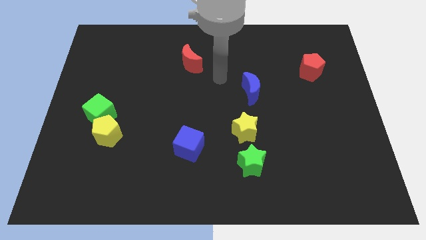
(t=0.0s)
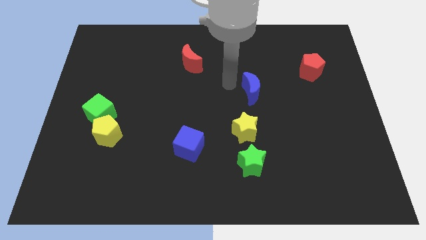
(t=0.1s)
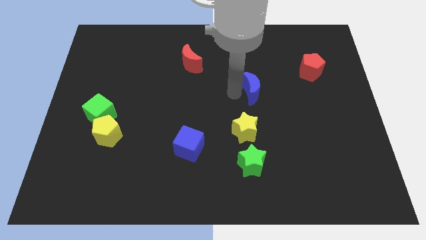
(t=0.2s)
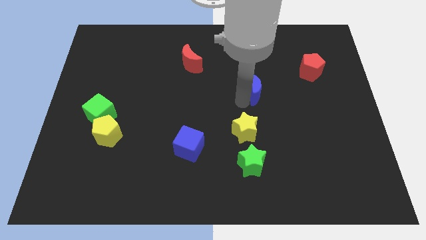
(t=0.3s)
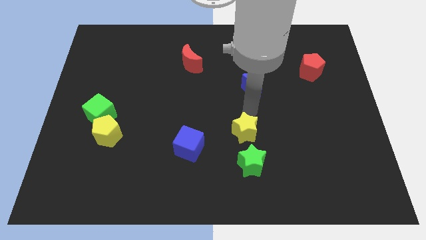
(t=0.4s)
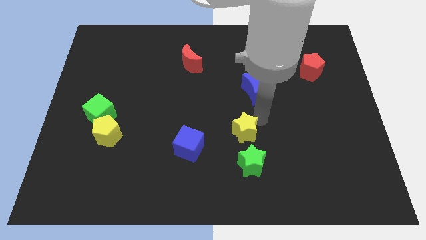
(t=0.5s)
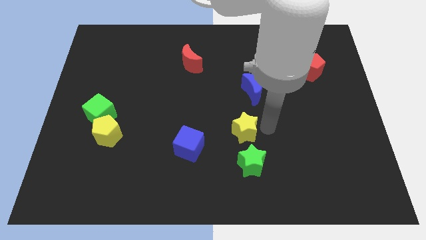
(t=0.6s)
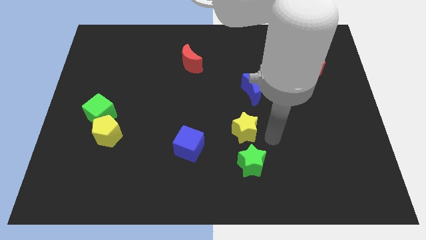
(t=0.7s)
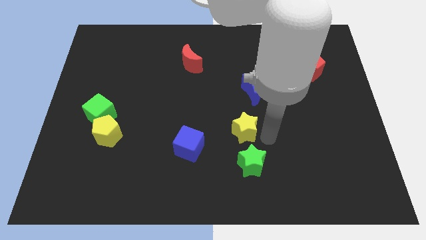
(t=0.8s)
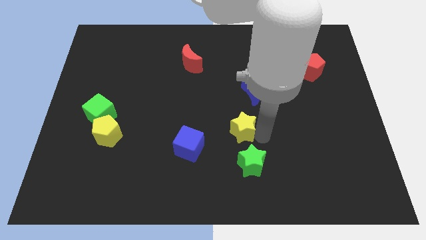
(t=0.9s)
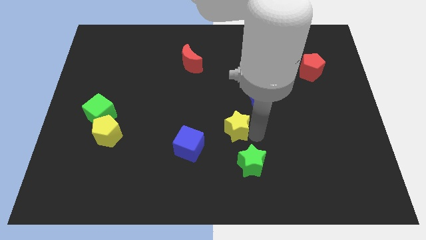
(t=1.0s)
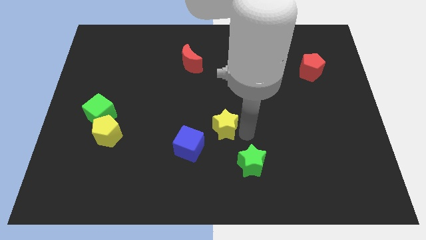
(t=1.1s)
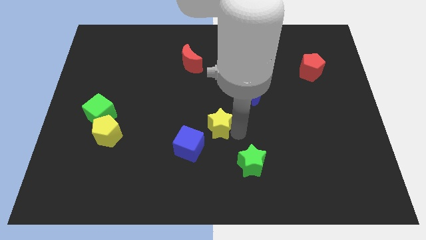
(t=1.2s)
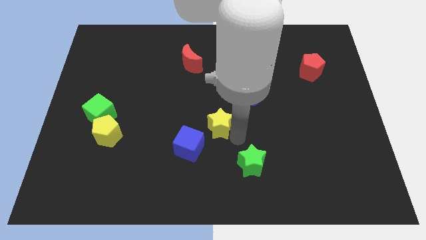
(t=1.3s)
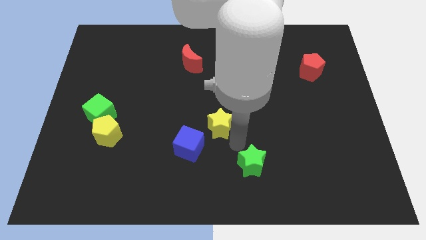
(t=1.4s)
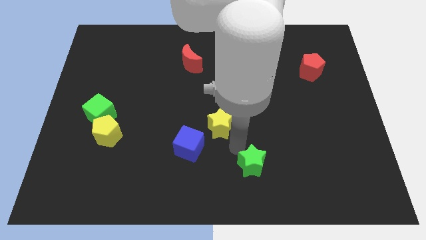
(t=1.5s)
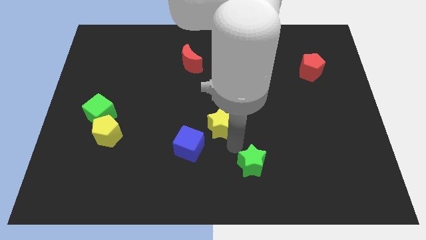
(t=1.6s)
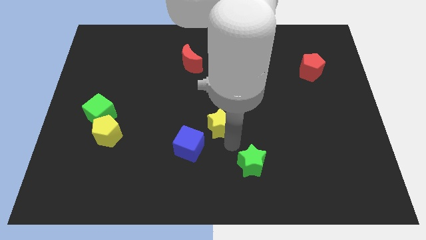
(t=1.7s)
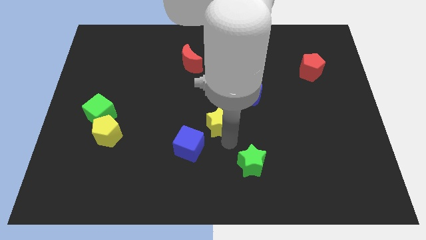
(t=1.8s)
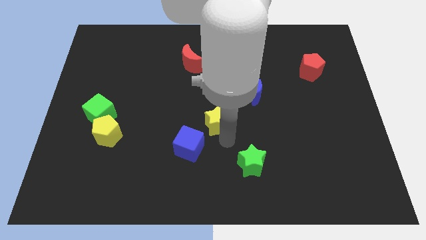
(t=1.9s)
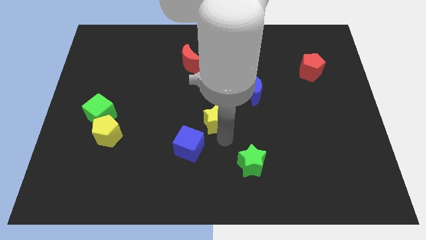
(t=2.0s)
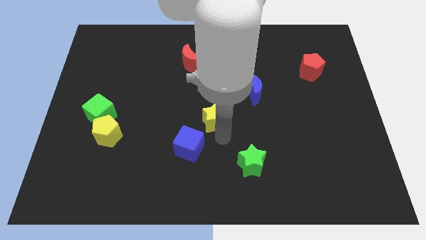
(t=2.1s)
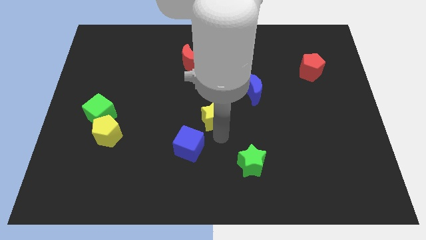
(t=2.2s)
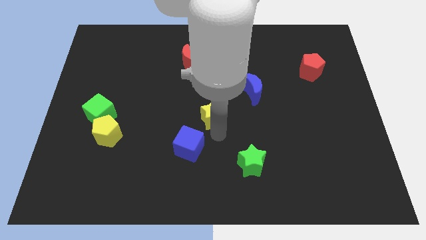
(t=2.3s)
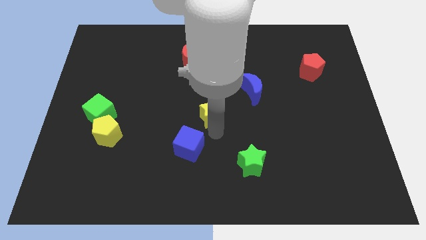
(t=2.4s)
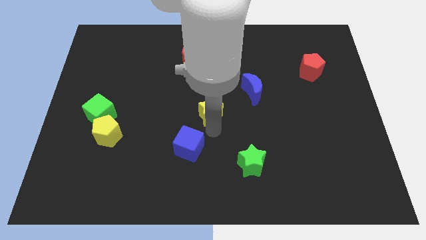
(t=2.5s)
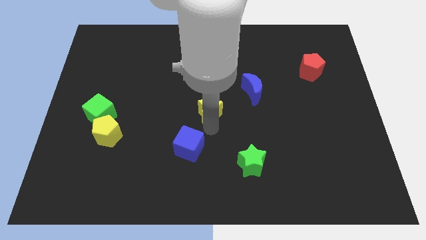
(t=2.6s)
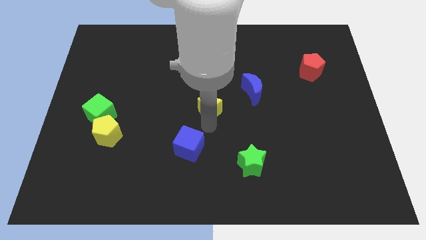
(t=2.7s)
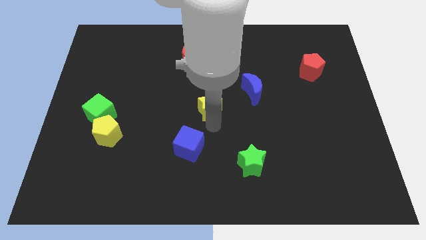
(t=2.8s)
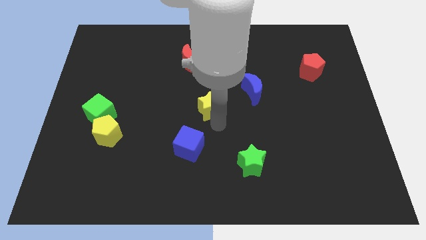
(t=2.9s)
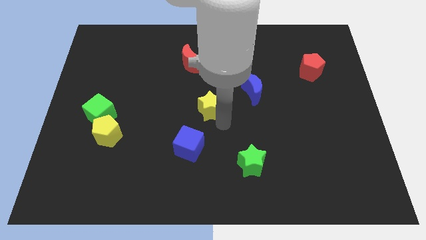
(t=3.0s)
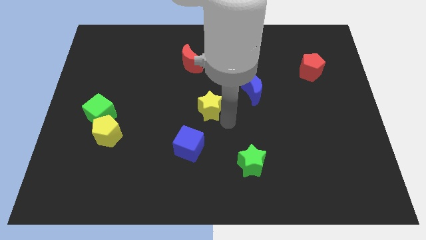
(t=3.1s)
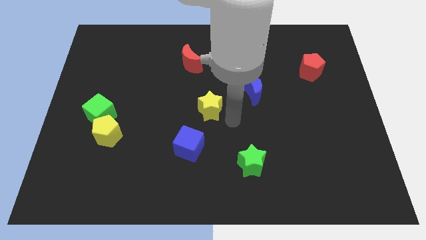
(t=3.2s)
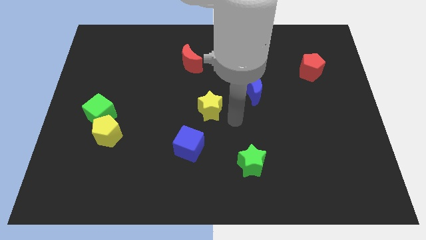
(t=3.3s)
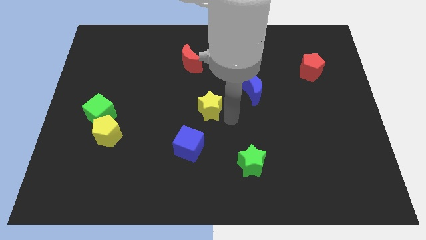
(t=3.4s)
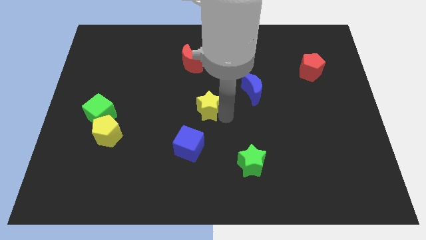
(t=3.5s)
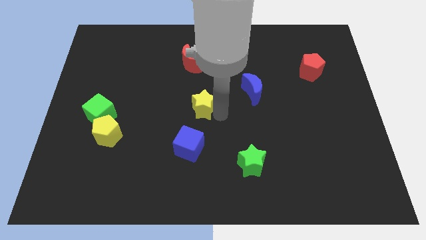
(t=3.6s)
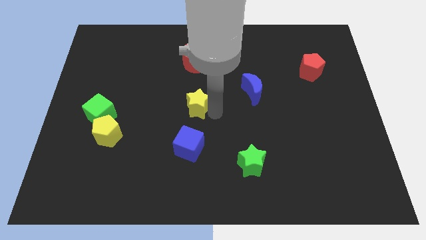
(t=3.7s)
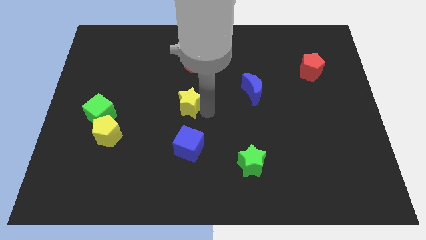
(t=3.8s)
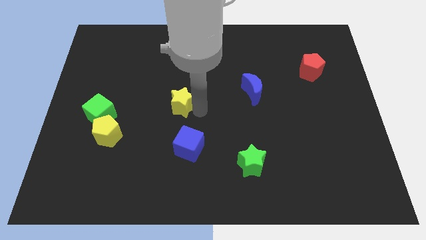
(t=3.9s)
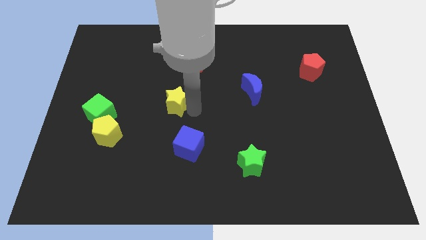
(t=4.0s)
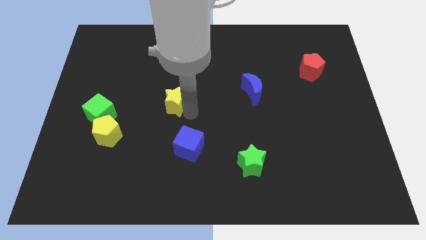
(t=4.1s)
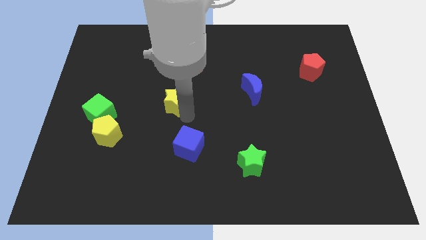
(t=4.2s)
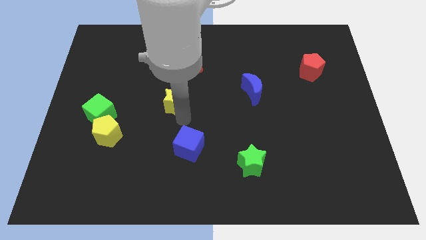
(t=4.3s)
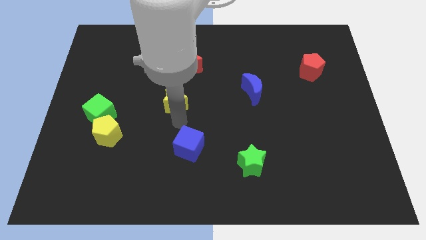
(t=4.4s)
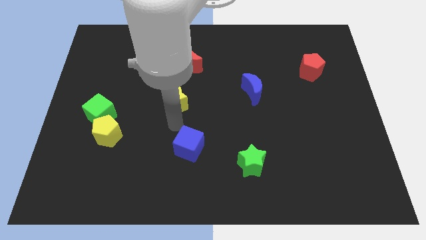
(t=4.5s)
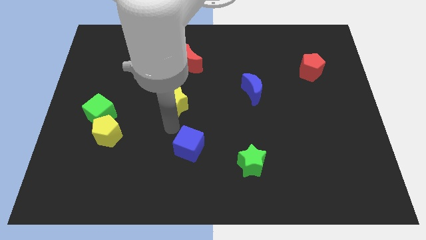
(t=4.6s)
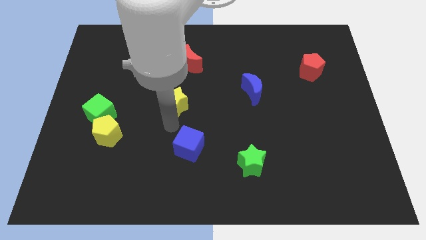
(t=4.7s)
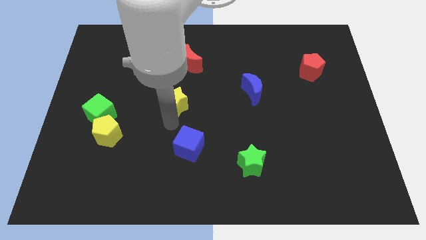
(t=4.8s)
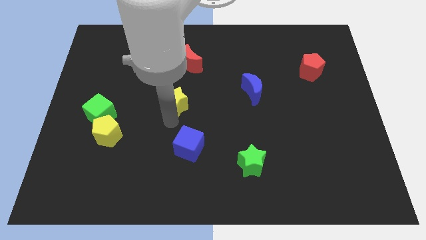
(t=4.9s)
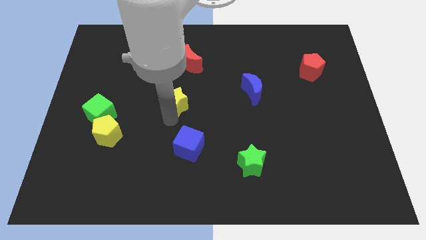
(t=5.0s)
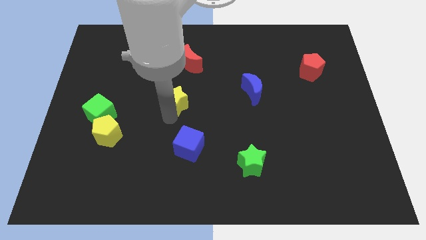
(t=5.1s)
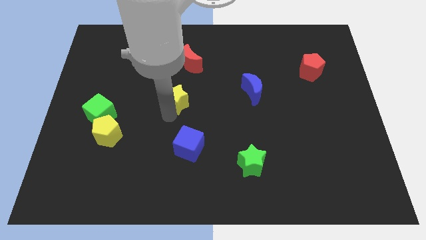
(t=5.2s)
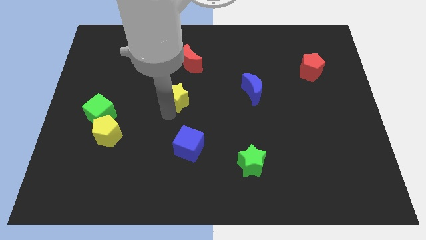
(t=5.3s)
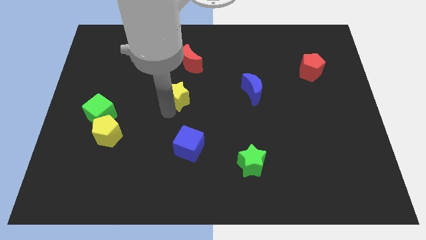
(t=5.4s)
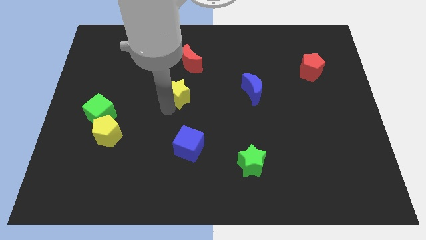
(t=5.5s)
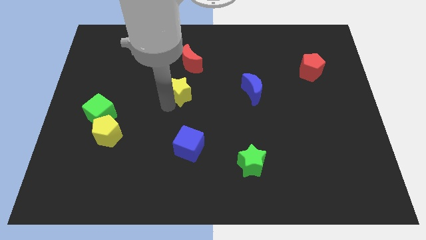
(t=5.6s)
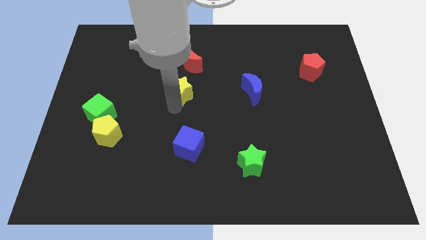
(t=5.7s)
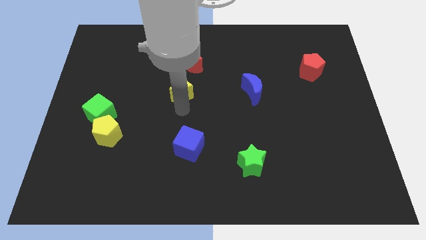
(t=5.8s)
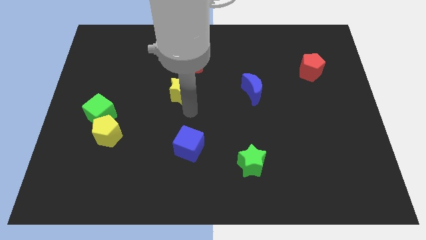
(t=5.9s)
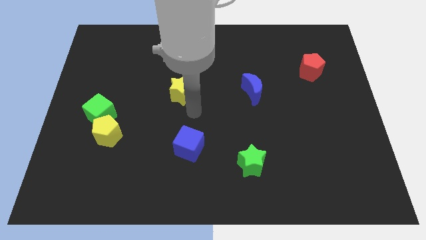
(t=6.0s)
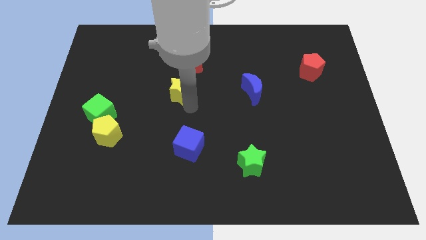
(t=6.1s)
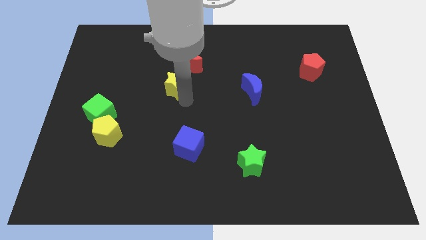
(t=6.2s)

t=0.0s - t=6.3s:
move the yellow star up and then left

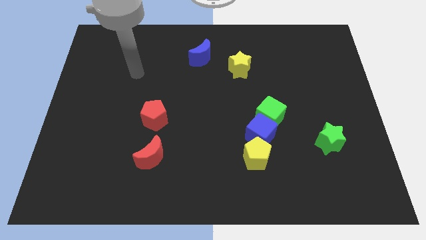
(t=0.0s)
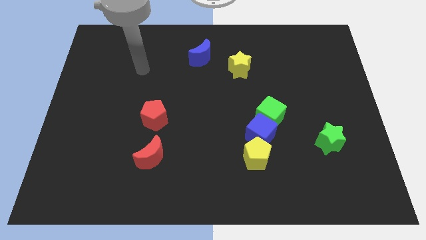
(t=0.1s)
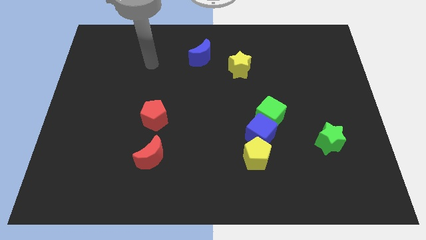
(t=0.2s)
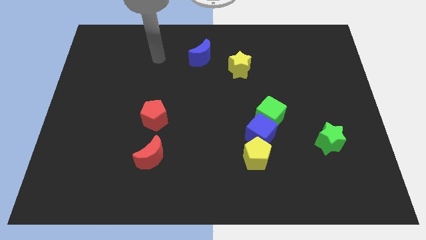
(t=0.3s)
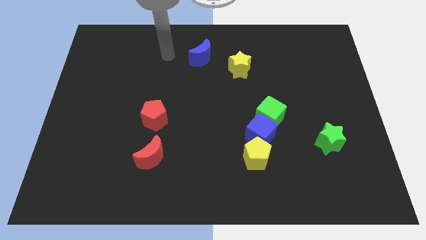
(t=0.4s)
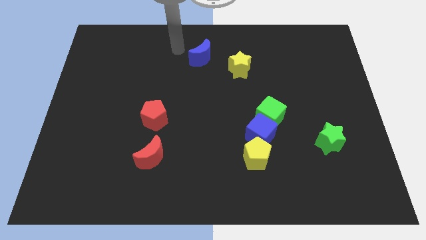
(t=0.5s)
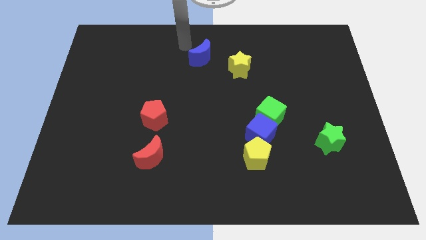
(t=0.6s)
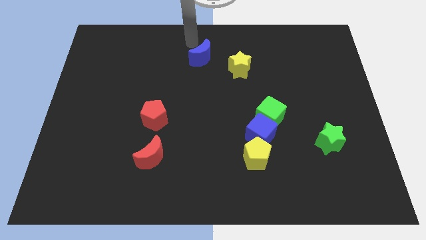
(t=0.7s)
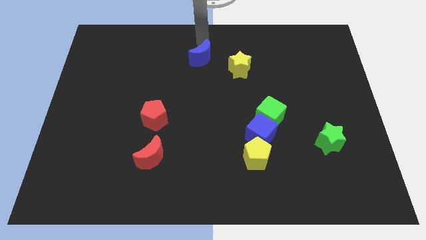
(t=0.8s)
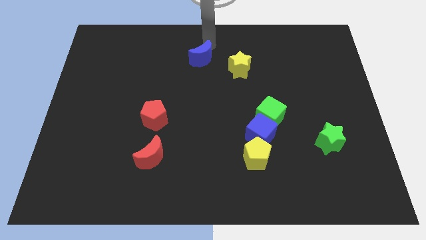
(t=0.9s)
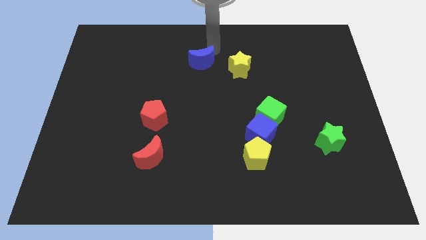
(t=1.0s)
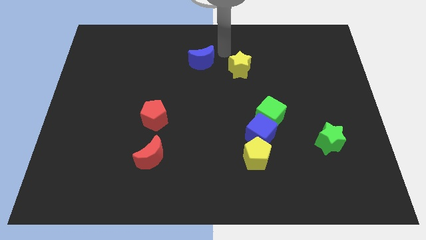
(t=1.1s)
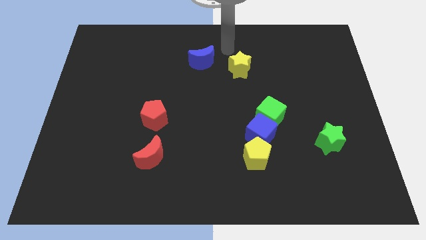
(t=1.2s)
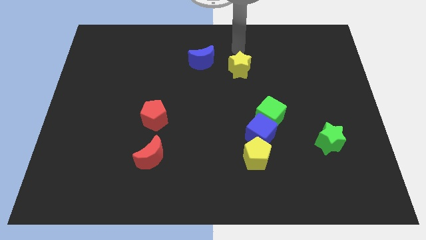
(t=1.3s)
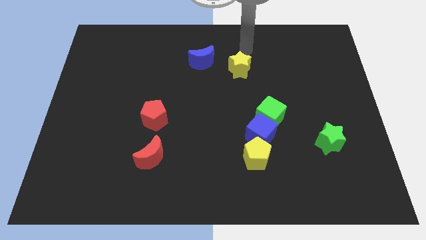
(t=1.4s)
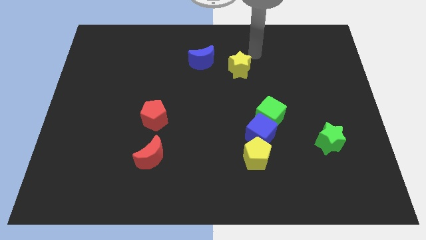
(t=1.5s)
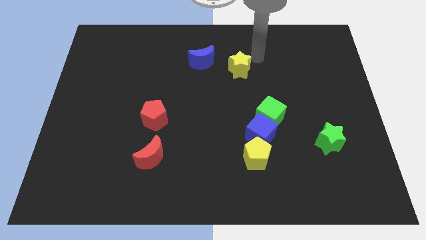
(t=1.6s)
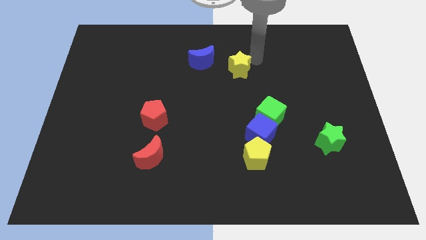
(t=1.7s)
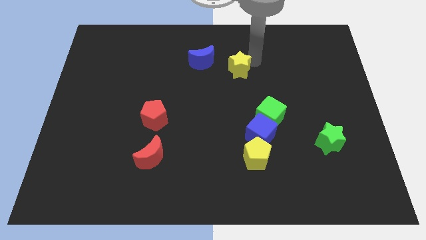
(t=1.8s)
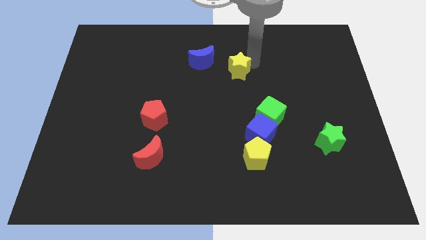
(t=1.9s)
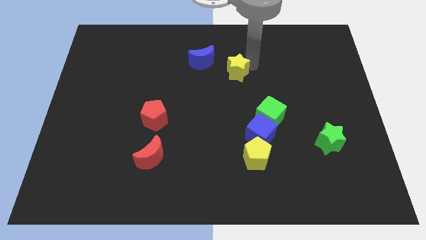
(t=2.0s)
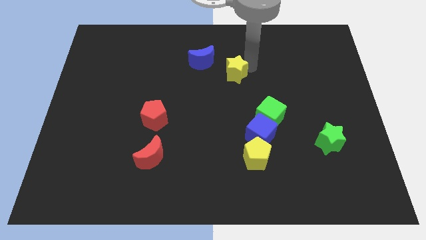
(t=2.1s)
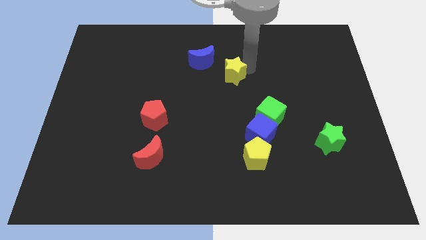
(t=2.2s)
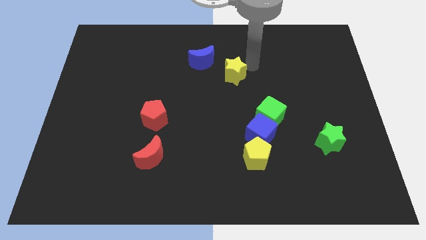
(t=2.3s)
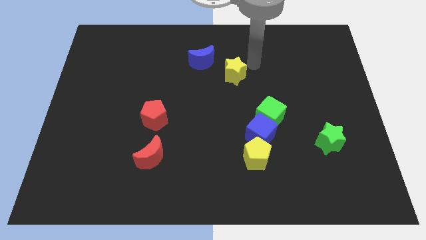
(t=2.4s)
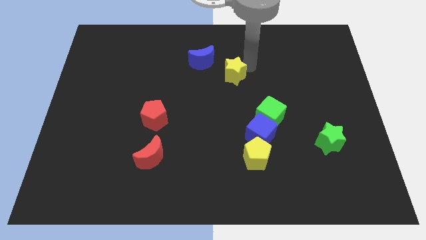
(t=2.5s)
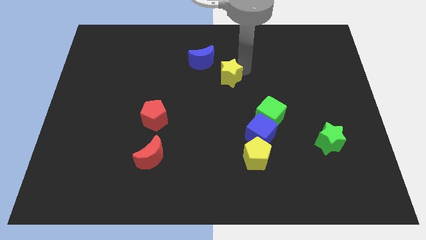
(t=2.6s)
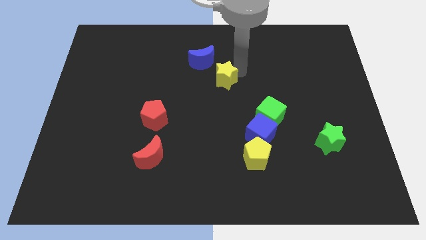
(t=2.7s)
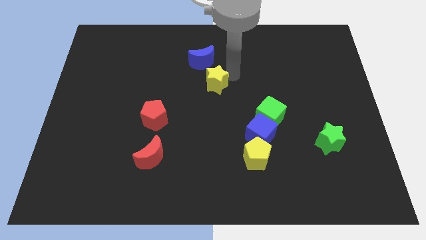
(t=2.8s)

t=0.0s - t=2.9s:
slightly push the yellow star down and to the left
